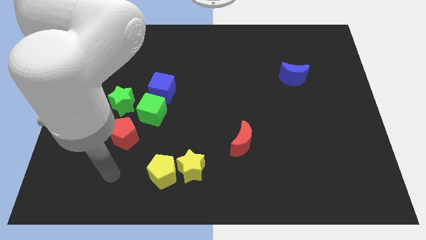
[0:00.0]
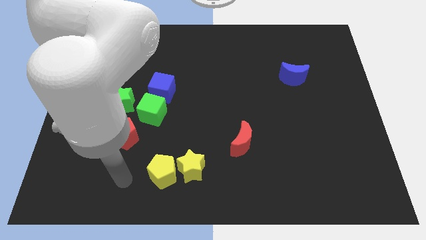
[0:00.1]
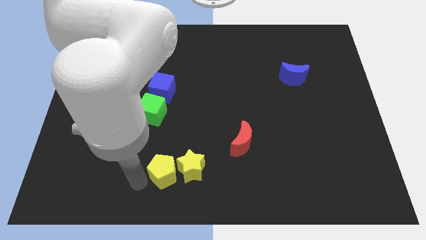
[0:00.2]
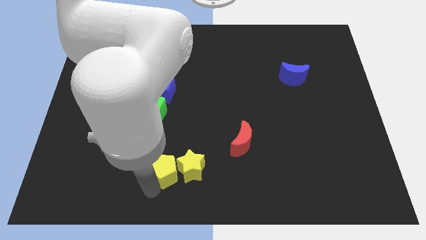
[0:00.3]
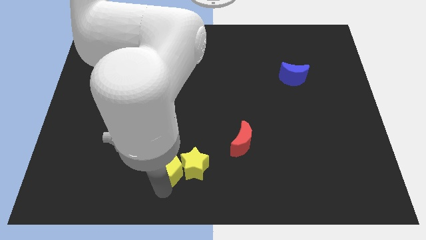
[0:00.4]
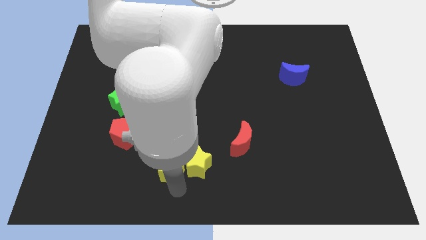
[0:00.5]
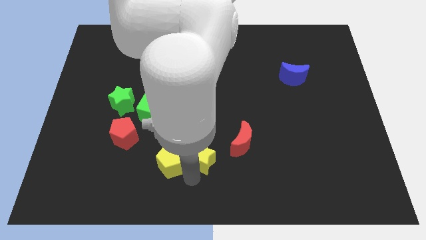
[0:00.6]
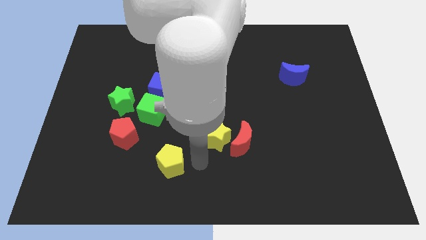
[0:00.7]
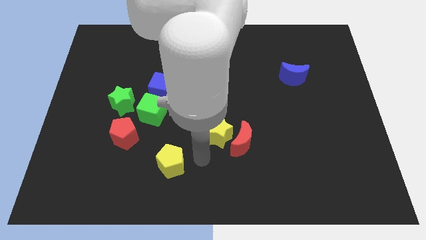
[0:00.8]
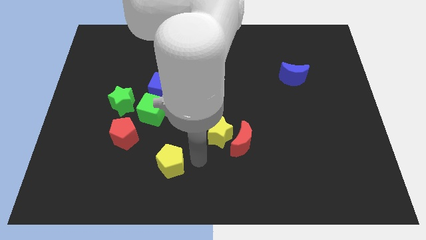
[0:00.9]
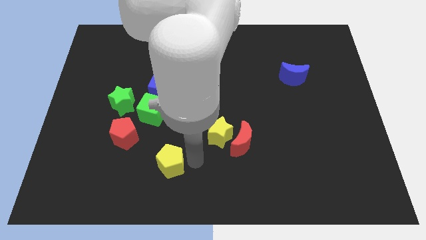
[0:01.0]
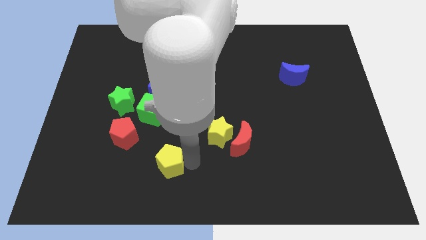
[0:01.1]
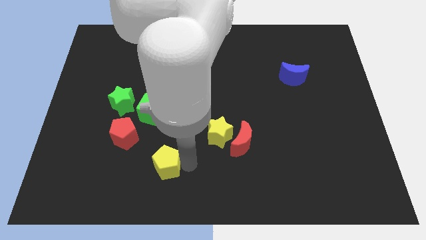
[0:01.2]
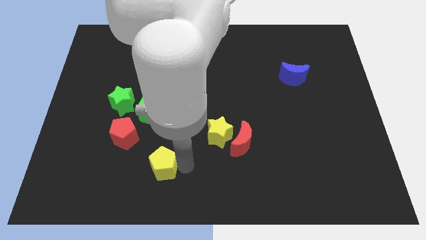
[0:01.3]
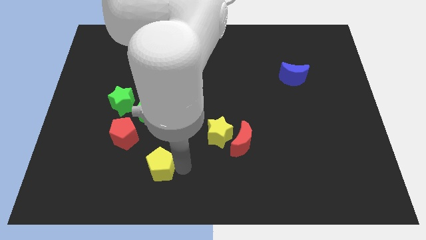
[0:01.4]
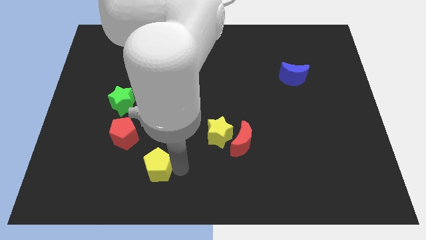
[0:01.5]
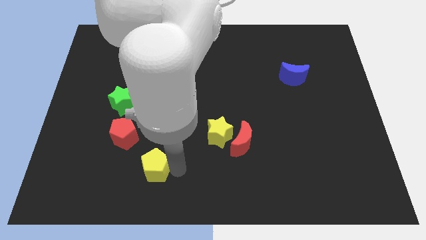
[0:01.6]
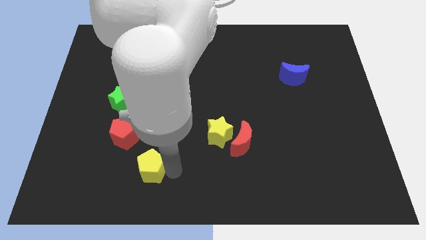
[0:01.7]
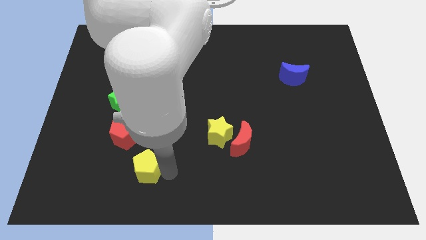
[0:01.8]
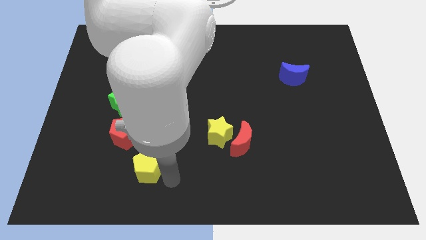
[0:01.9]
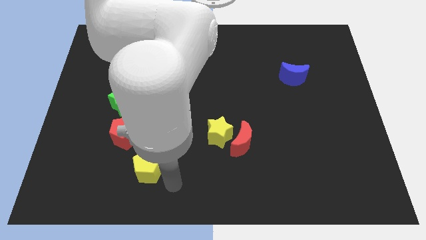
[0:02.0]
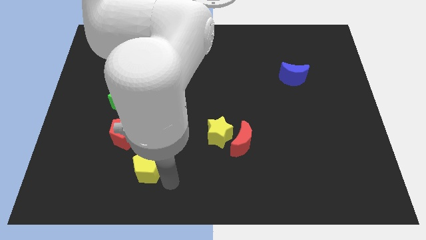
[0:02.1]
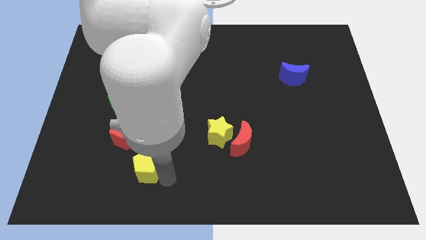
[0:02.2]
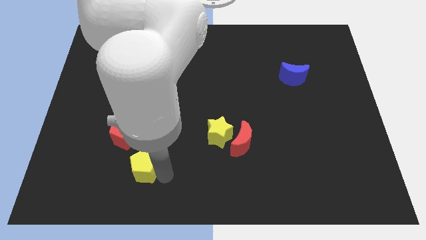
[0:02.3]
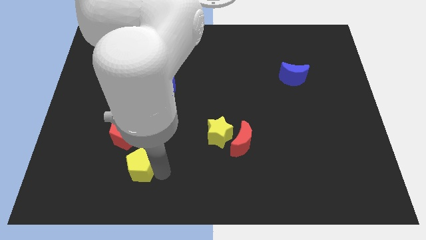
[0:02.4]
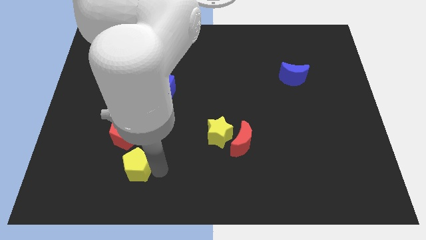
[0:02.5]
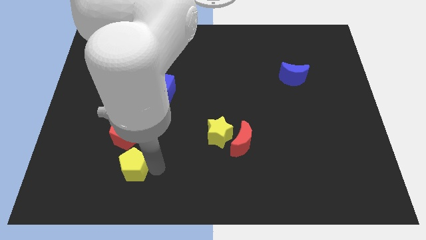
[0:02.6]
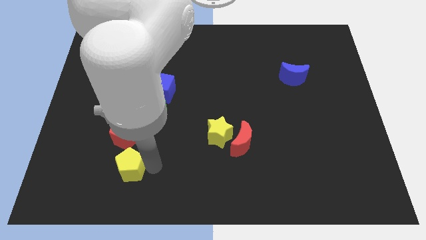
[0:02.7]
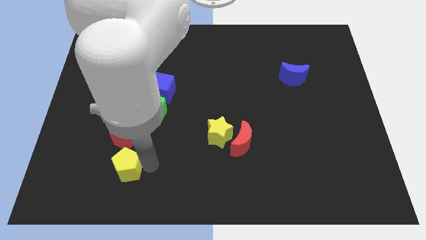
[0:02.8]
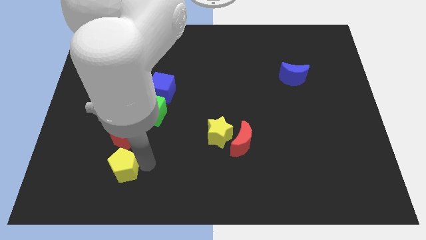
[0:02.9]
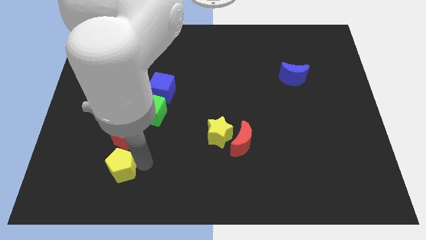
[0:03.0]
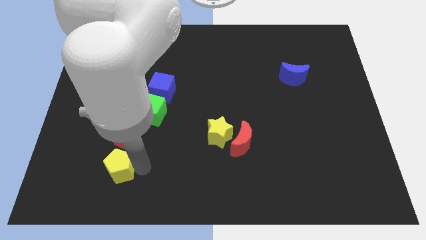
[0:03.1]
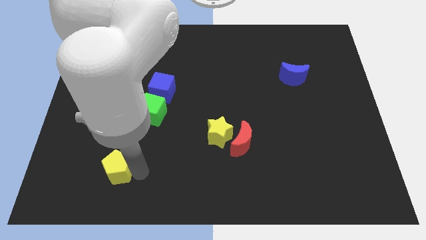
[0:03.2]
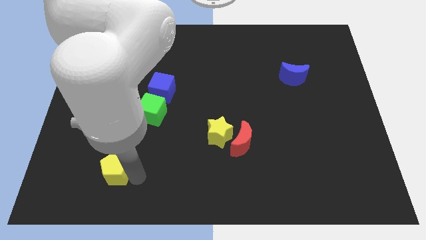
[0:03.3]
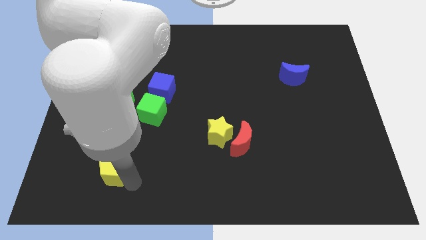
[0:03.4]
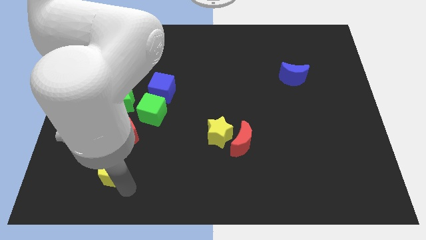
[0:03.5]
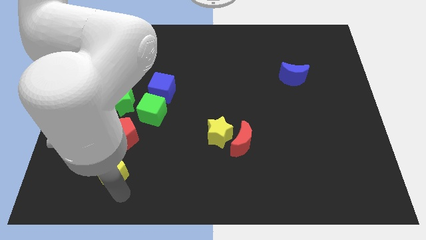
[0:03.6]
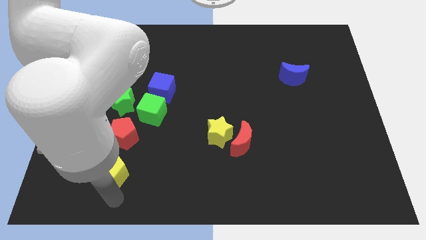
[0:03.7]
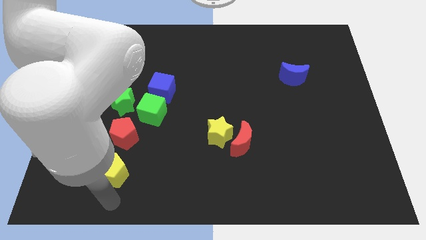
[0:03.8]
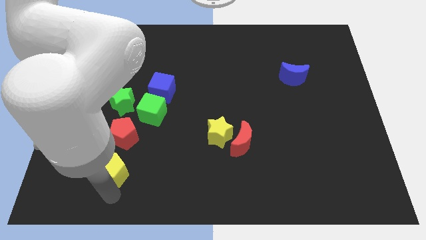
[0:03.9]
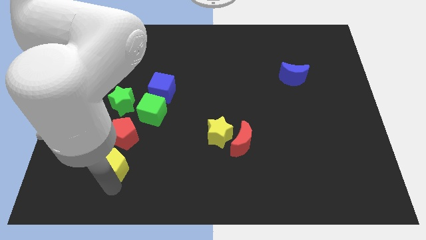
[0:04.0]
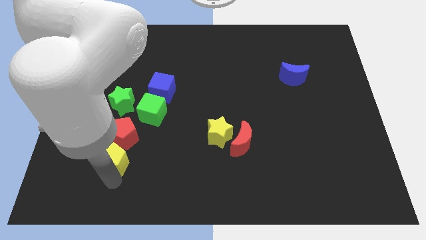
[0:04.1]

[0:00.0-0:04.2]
slightly push the yellow pentagon up and left

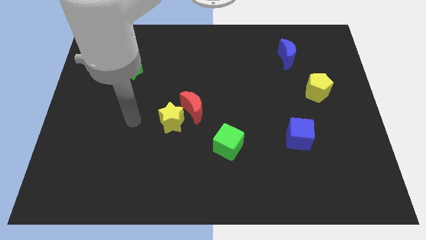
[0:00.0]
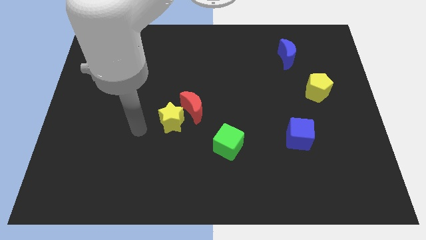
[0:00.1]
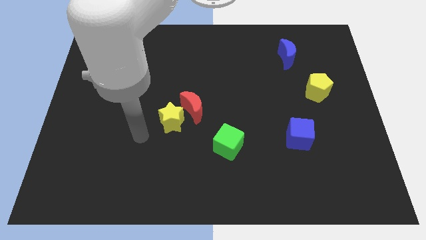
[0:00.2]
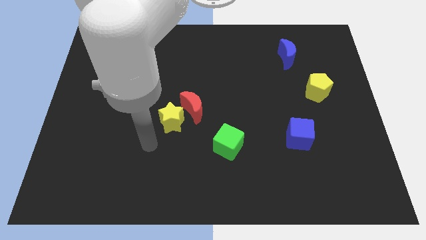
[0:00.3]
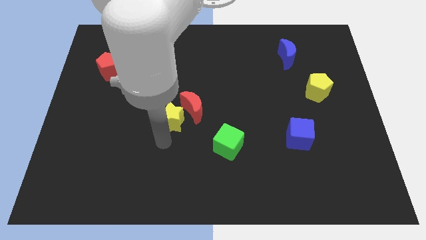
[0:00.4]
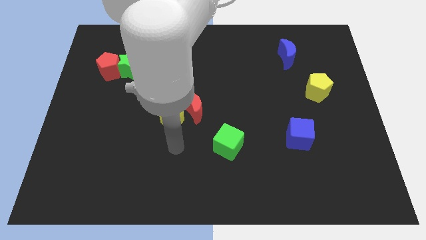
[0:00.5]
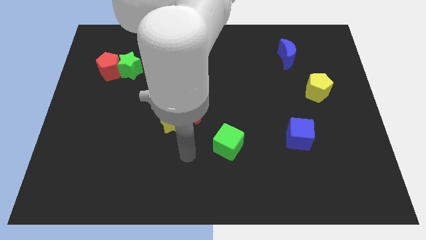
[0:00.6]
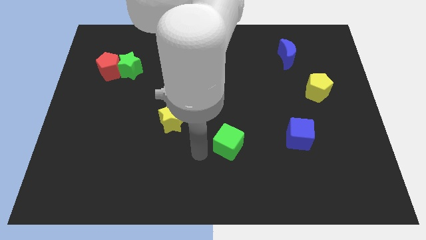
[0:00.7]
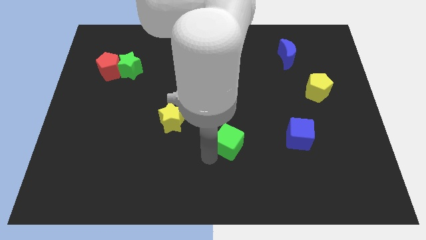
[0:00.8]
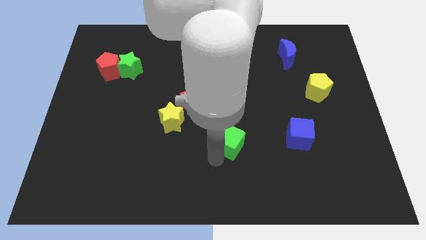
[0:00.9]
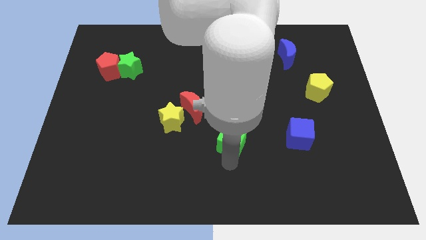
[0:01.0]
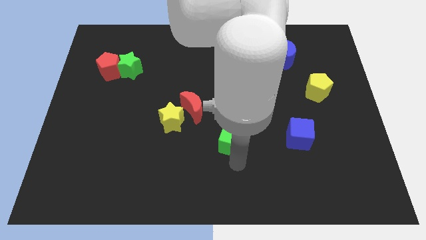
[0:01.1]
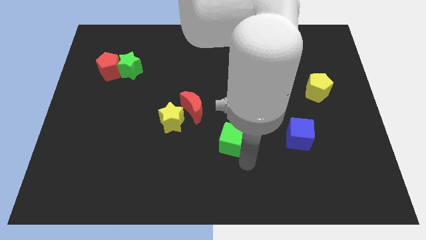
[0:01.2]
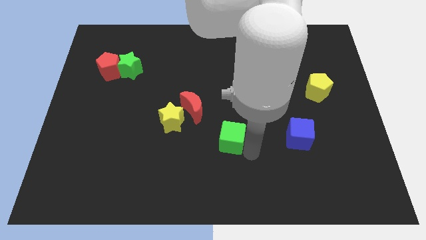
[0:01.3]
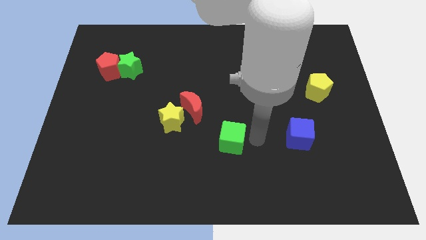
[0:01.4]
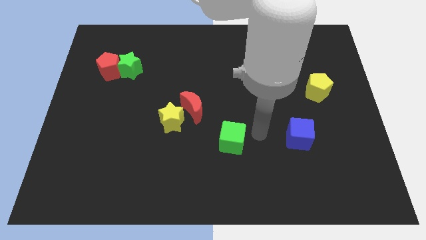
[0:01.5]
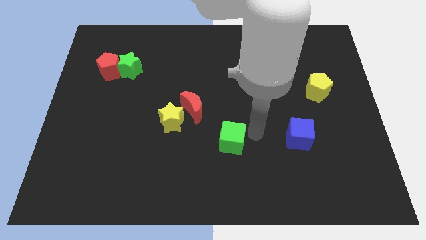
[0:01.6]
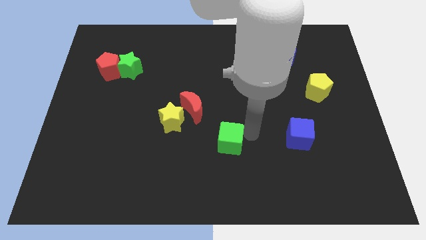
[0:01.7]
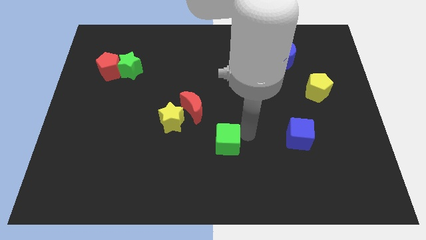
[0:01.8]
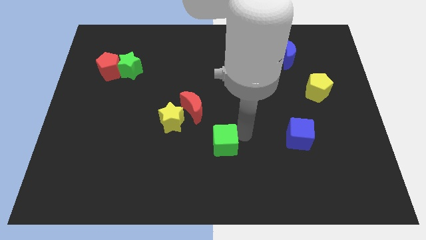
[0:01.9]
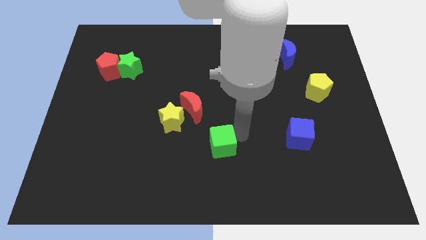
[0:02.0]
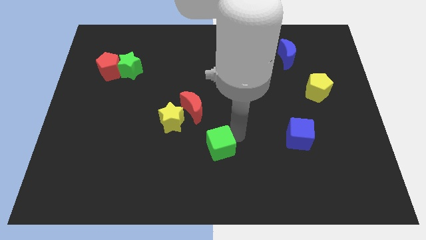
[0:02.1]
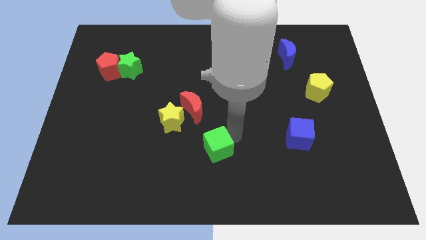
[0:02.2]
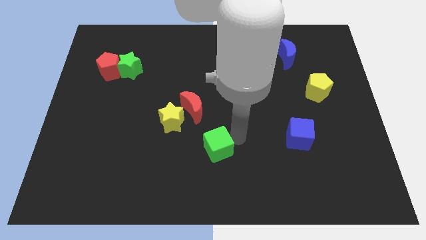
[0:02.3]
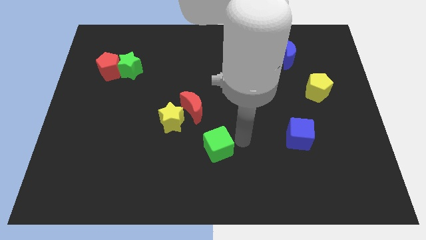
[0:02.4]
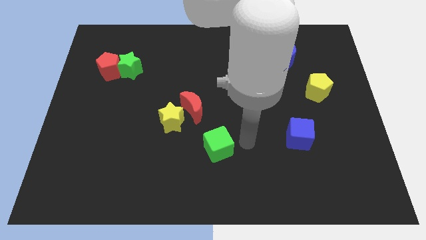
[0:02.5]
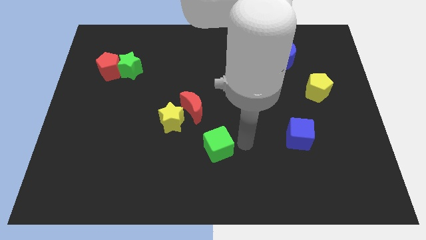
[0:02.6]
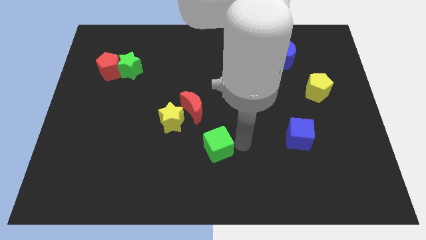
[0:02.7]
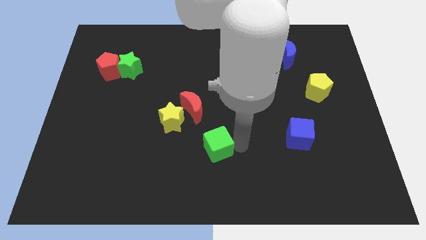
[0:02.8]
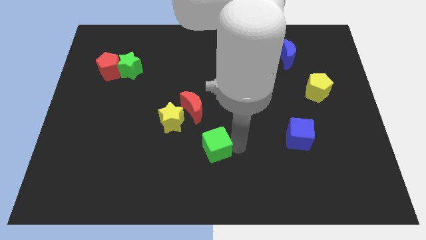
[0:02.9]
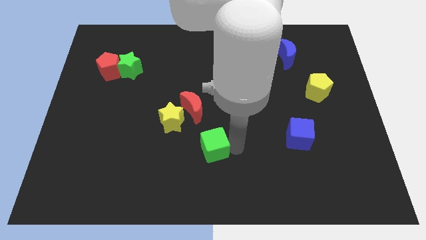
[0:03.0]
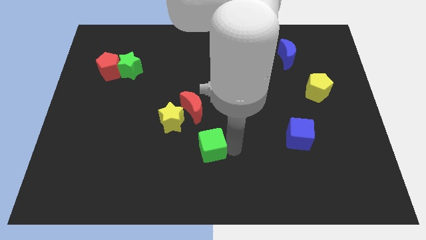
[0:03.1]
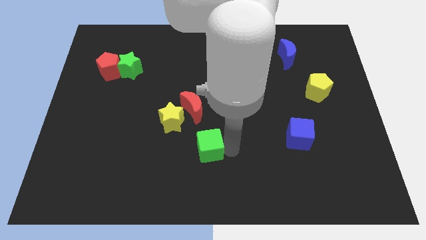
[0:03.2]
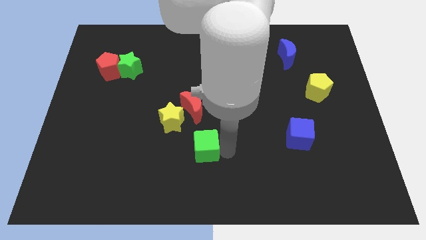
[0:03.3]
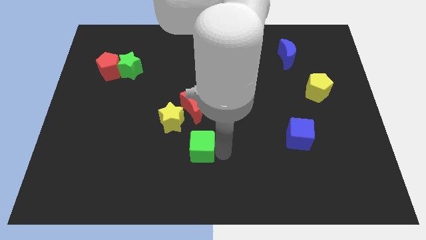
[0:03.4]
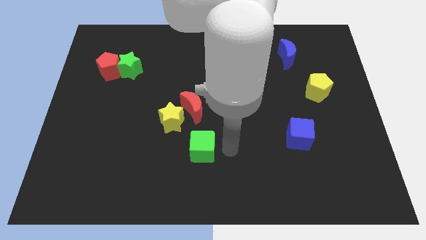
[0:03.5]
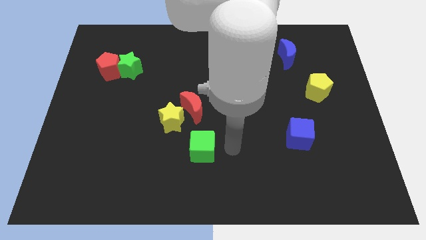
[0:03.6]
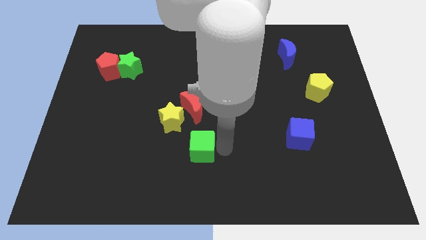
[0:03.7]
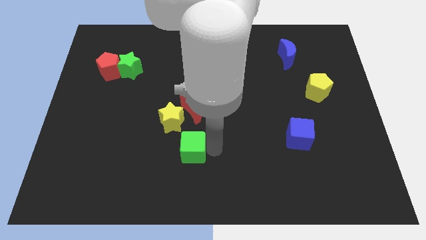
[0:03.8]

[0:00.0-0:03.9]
push the green cube to the left somewhat
